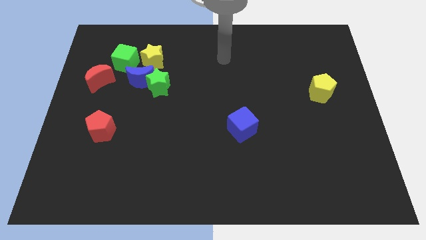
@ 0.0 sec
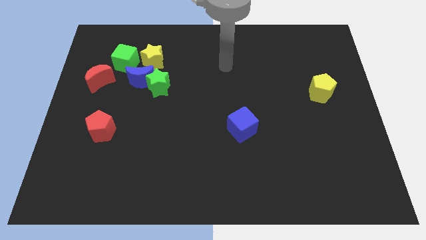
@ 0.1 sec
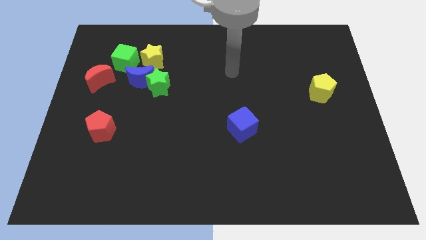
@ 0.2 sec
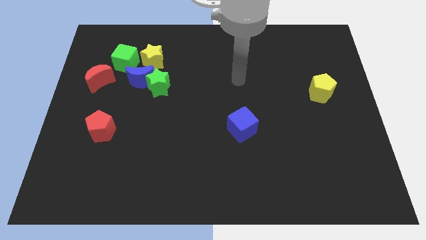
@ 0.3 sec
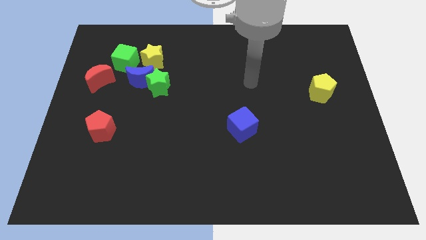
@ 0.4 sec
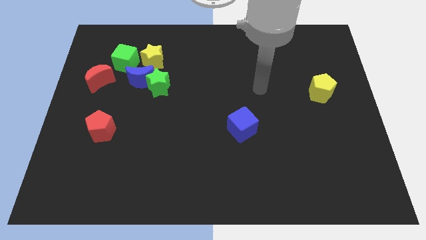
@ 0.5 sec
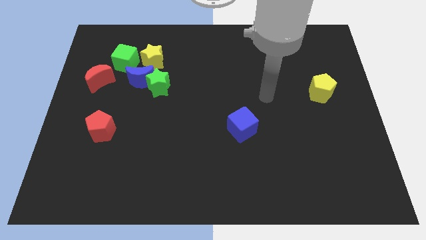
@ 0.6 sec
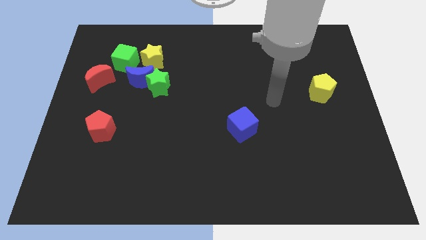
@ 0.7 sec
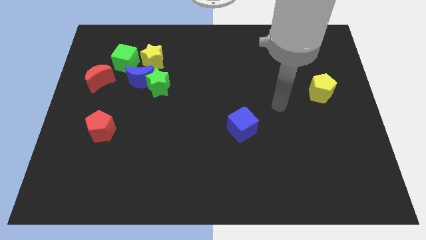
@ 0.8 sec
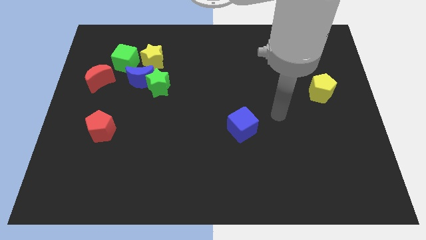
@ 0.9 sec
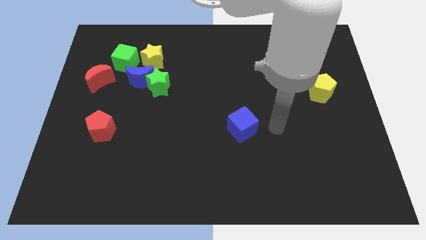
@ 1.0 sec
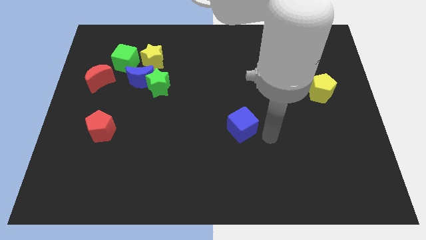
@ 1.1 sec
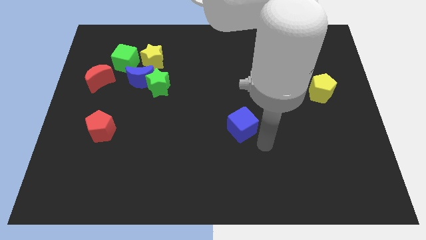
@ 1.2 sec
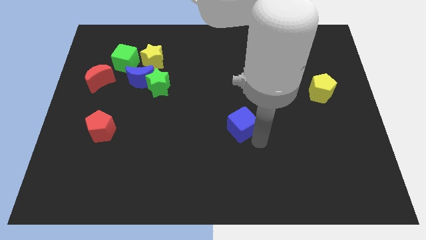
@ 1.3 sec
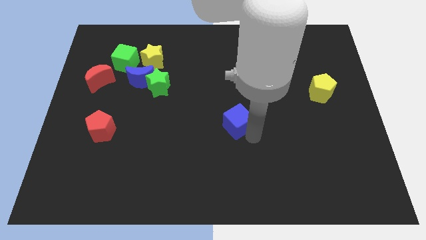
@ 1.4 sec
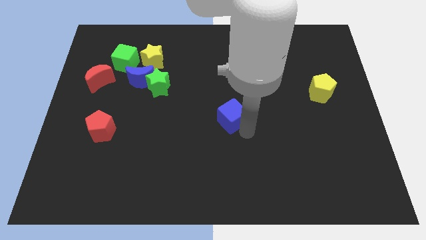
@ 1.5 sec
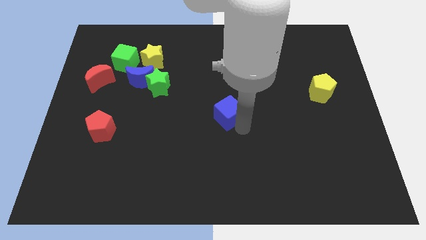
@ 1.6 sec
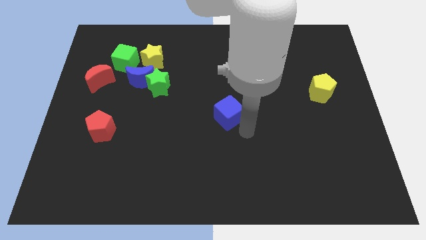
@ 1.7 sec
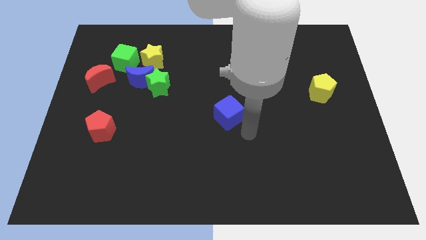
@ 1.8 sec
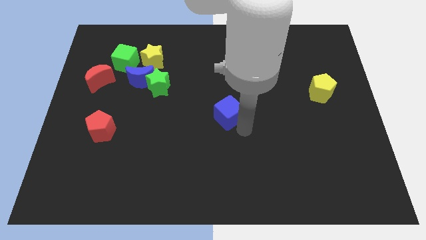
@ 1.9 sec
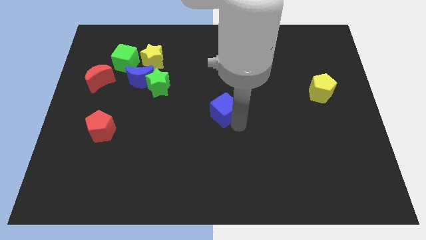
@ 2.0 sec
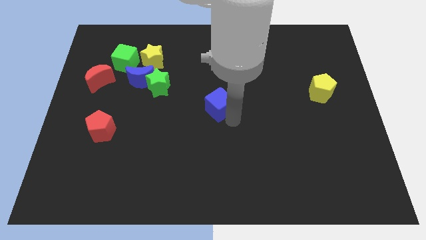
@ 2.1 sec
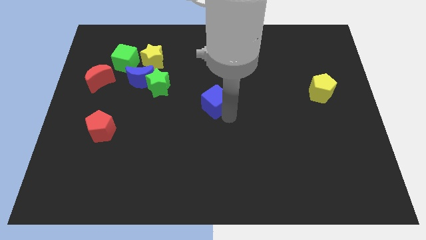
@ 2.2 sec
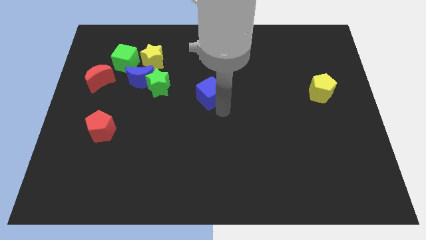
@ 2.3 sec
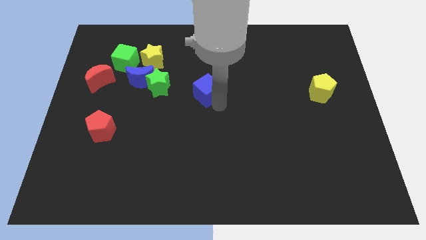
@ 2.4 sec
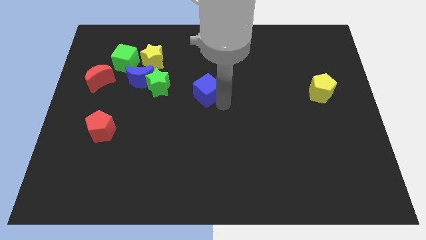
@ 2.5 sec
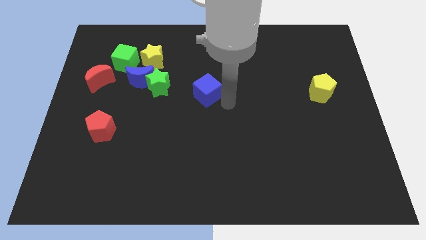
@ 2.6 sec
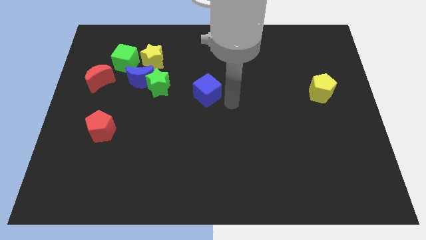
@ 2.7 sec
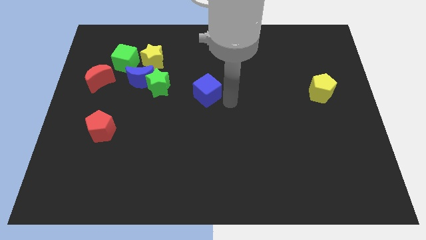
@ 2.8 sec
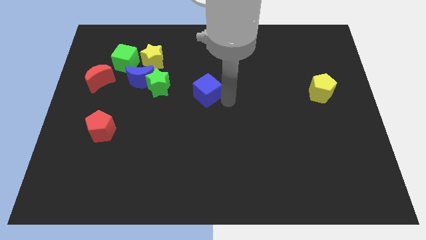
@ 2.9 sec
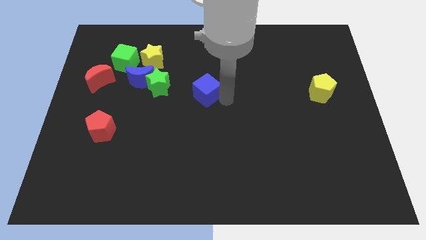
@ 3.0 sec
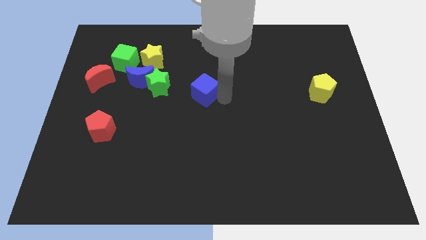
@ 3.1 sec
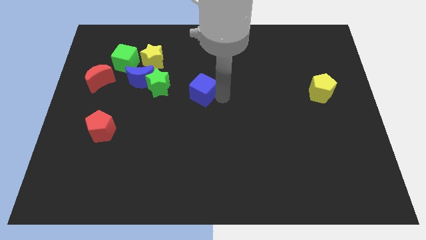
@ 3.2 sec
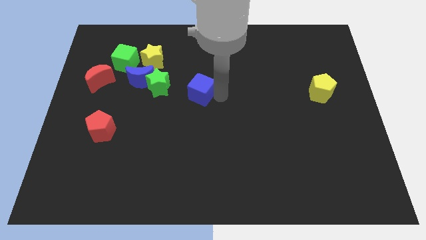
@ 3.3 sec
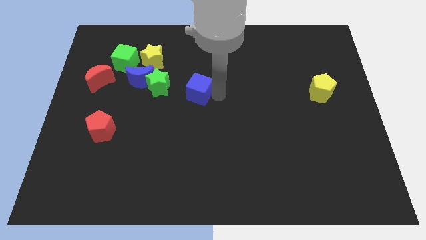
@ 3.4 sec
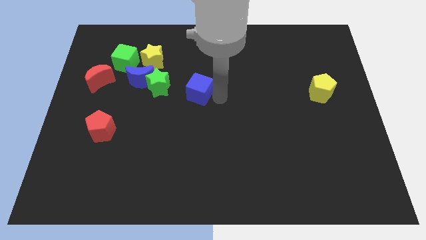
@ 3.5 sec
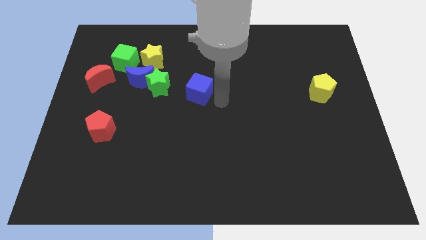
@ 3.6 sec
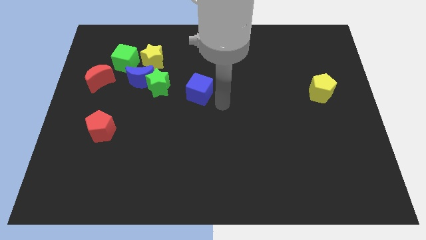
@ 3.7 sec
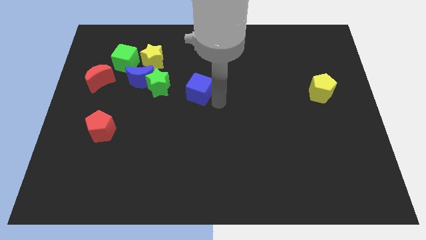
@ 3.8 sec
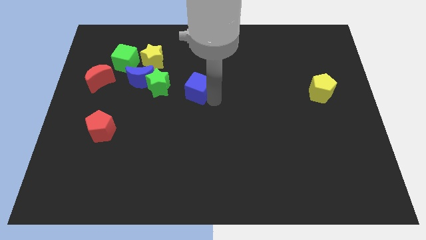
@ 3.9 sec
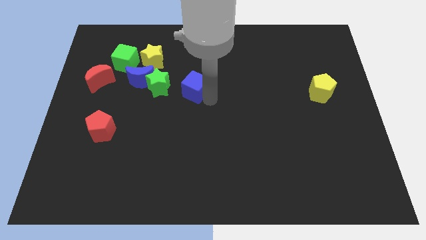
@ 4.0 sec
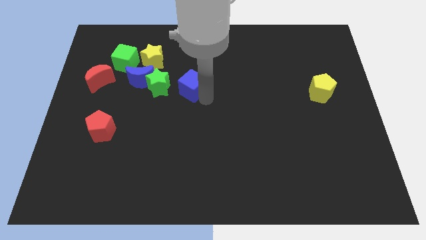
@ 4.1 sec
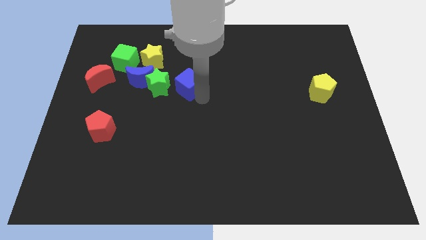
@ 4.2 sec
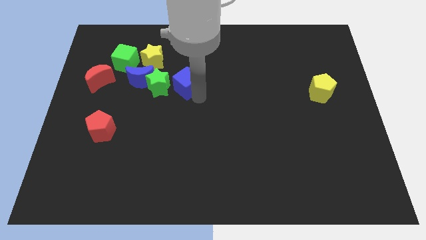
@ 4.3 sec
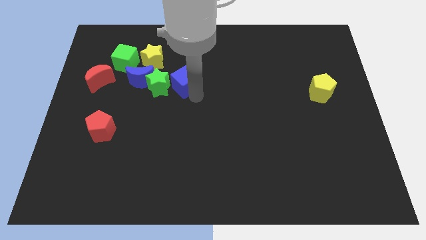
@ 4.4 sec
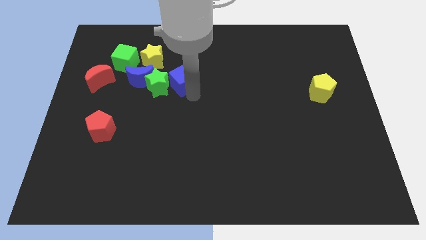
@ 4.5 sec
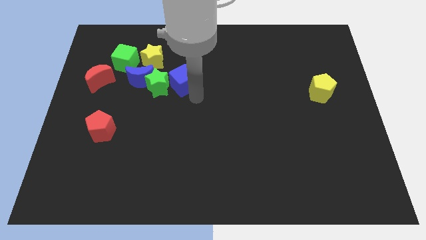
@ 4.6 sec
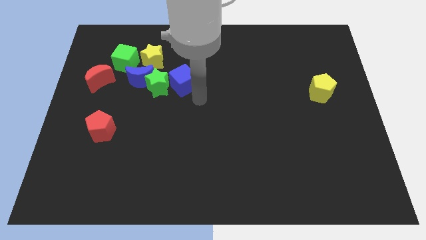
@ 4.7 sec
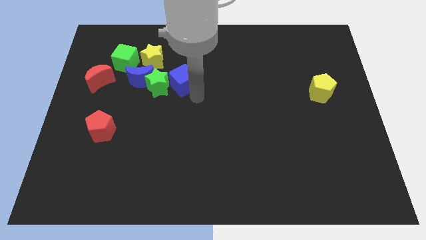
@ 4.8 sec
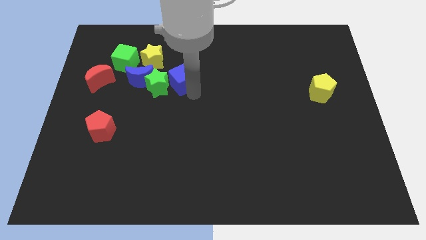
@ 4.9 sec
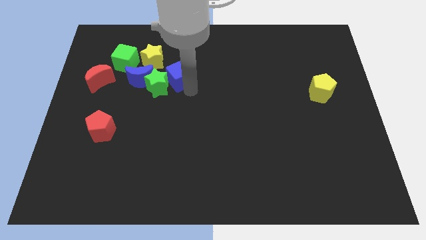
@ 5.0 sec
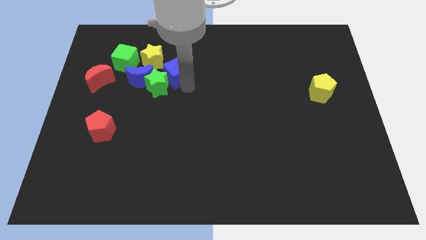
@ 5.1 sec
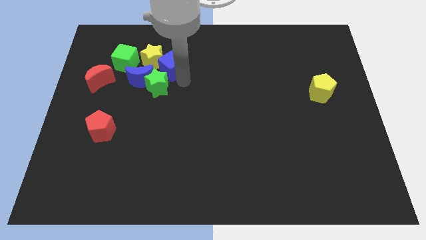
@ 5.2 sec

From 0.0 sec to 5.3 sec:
push the blue cube next to the yellow star

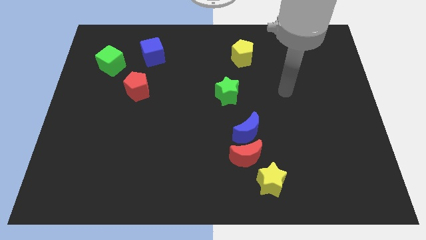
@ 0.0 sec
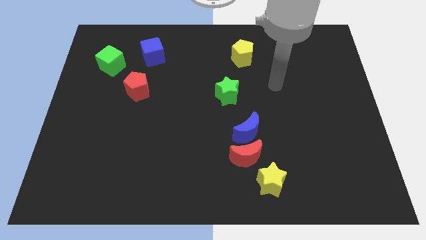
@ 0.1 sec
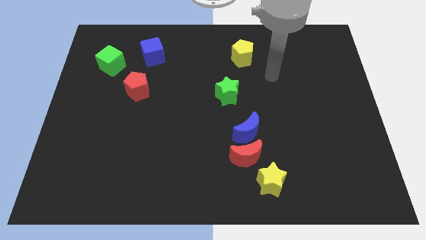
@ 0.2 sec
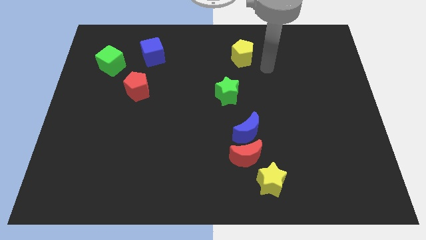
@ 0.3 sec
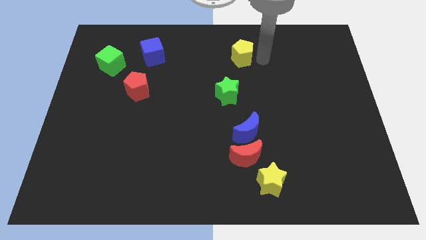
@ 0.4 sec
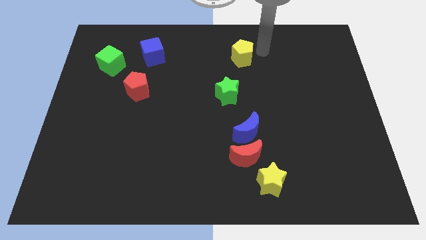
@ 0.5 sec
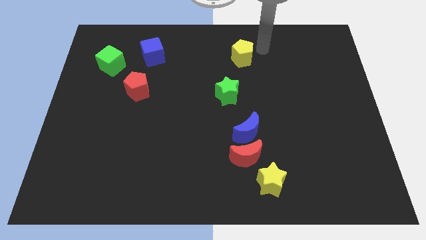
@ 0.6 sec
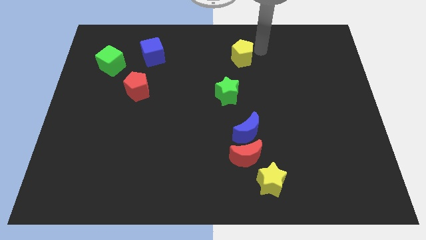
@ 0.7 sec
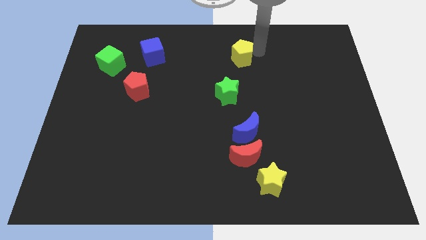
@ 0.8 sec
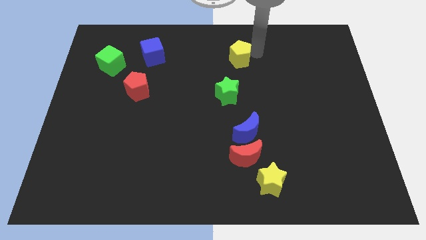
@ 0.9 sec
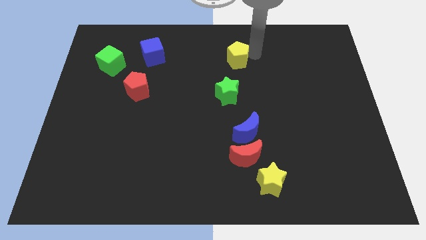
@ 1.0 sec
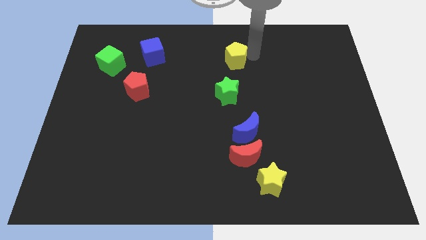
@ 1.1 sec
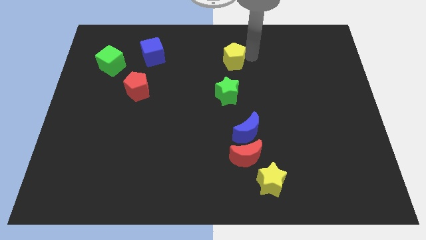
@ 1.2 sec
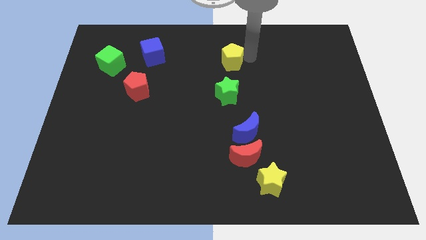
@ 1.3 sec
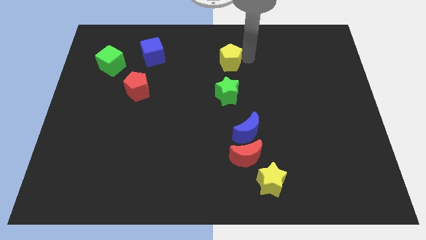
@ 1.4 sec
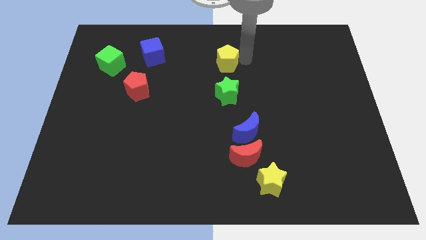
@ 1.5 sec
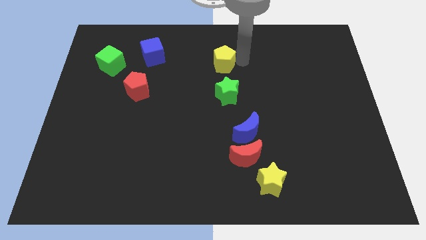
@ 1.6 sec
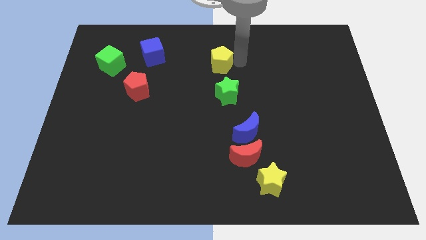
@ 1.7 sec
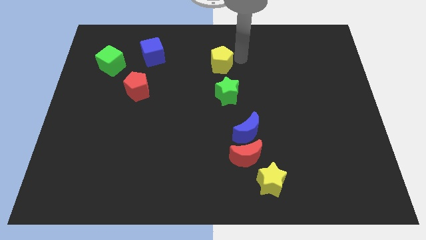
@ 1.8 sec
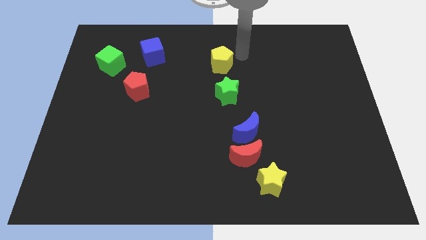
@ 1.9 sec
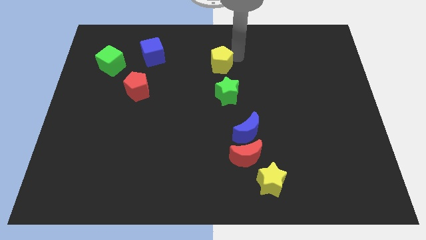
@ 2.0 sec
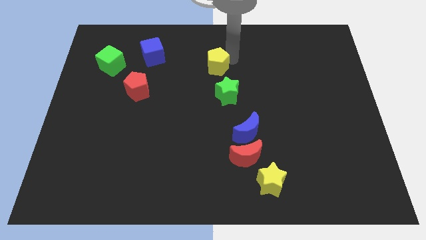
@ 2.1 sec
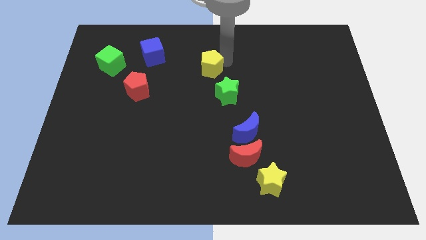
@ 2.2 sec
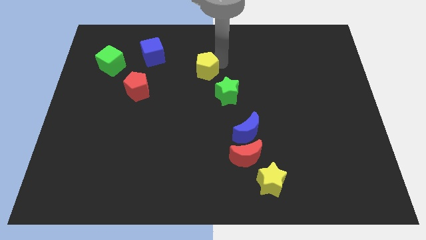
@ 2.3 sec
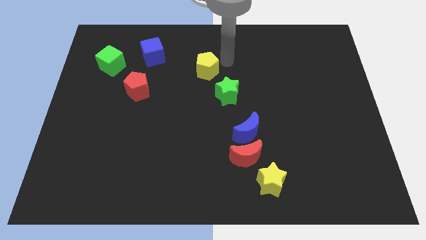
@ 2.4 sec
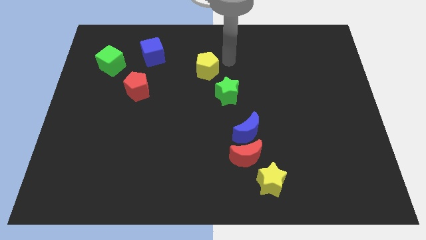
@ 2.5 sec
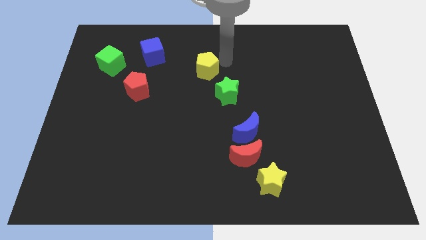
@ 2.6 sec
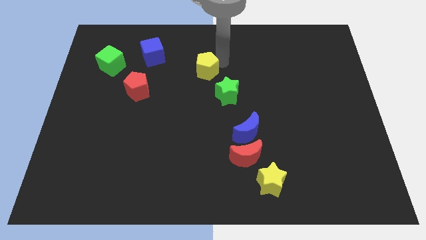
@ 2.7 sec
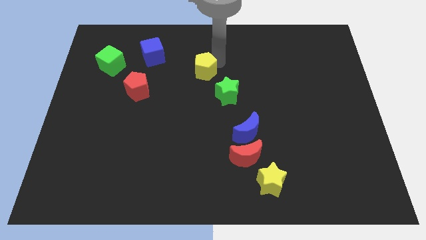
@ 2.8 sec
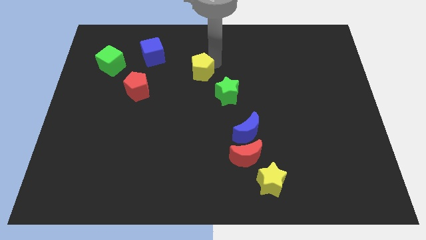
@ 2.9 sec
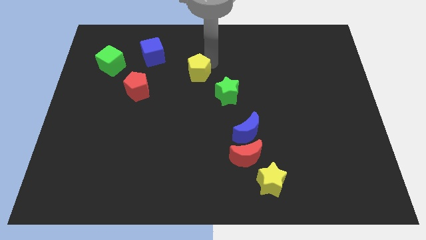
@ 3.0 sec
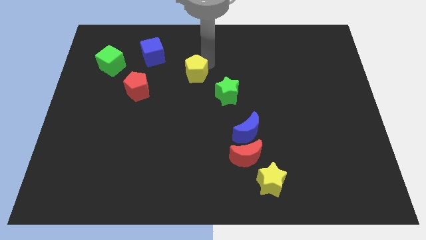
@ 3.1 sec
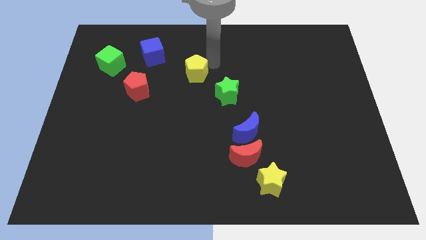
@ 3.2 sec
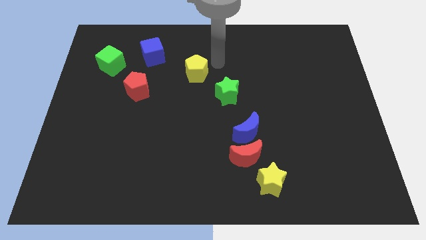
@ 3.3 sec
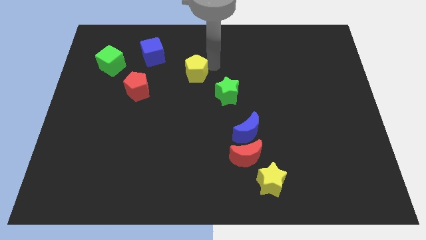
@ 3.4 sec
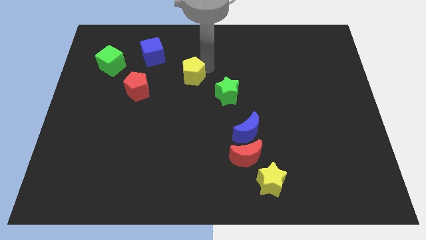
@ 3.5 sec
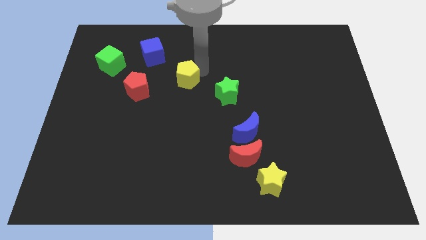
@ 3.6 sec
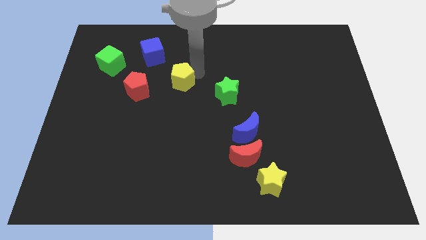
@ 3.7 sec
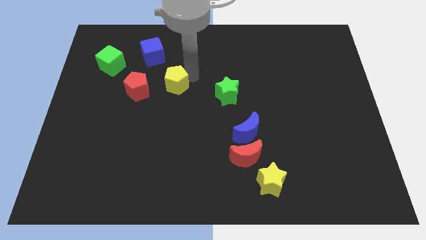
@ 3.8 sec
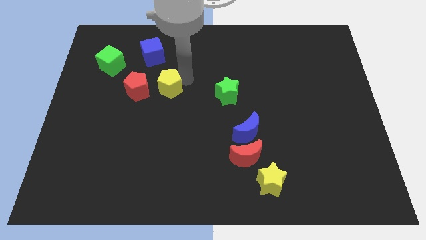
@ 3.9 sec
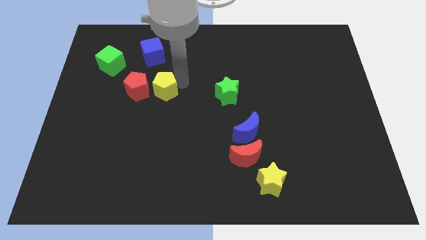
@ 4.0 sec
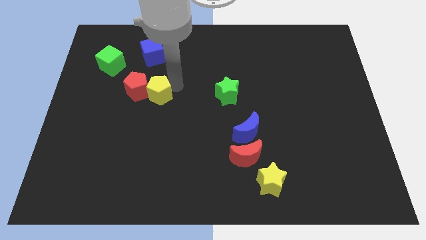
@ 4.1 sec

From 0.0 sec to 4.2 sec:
move the yellow pentagon close to the red pentagon
